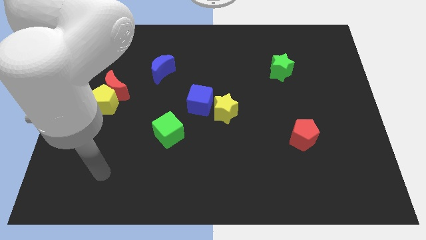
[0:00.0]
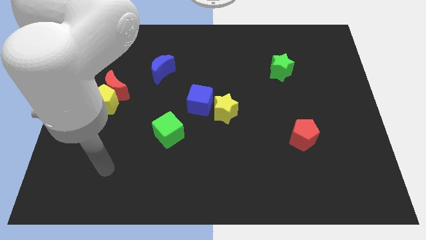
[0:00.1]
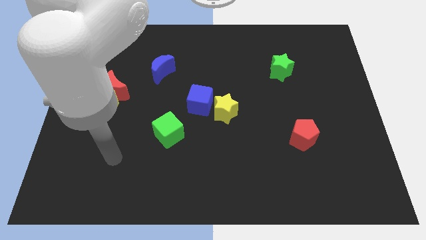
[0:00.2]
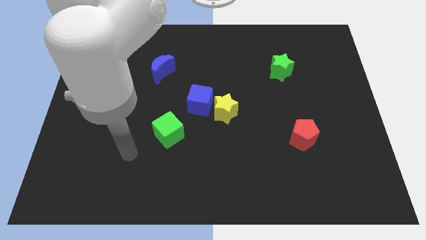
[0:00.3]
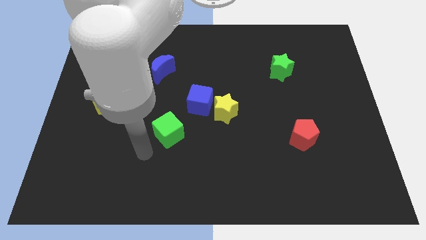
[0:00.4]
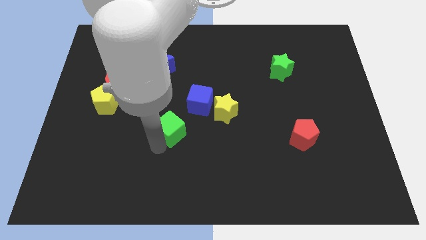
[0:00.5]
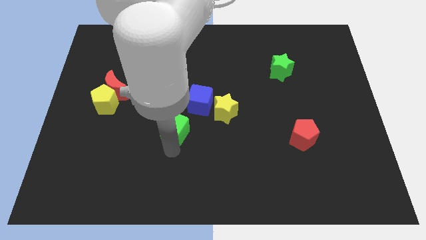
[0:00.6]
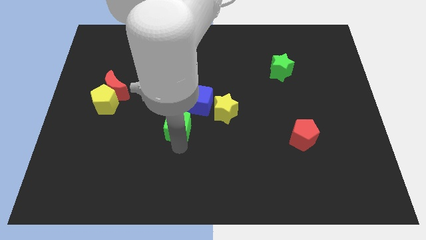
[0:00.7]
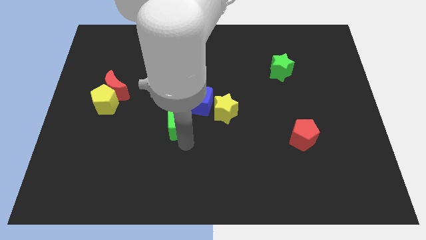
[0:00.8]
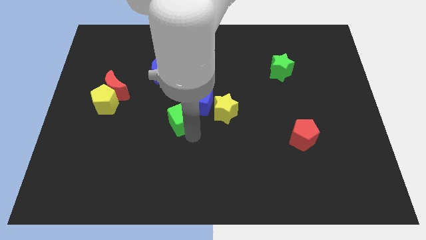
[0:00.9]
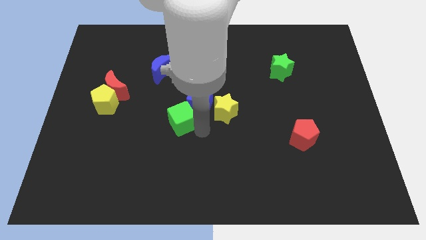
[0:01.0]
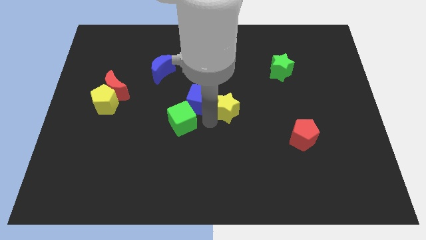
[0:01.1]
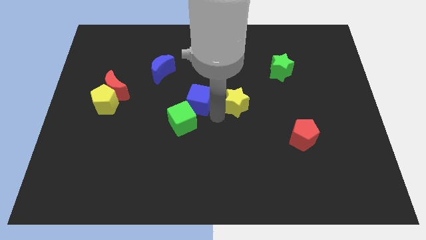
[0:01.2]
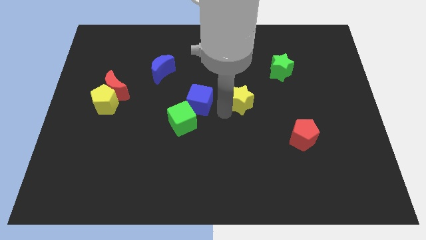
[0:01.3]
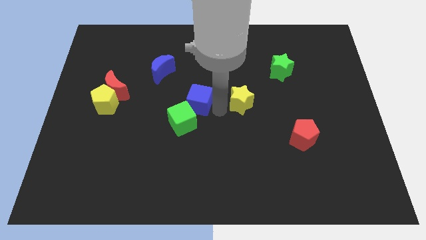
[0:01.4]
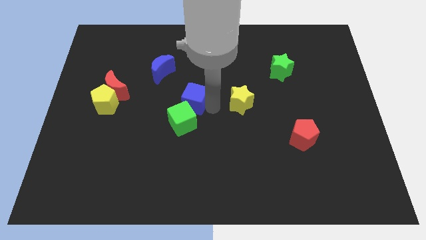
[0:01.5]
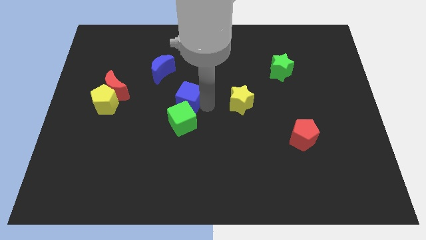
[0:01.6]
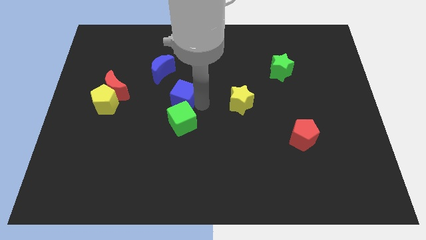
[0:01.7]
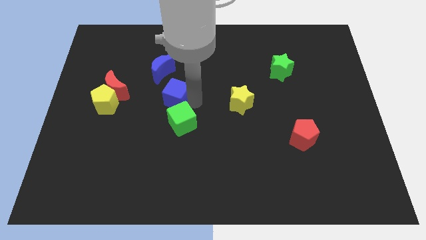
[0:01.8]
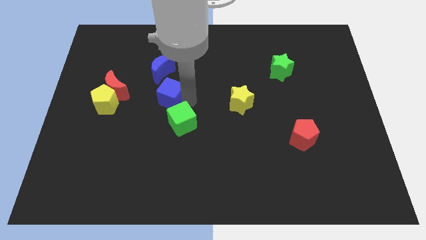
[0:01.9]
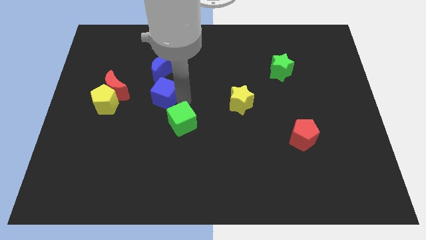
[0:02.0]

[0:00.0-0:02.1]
slide the blue cube slightly up and left diagonally

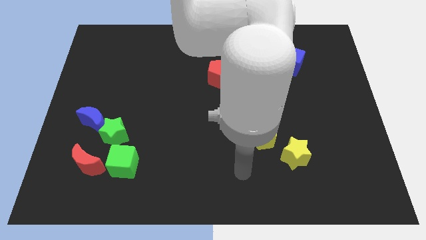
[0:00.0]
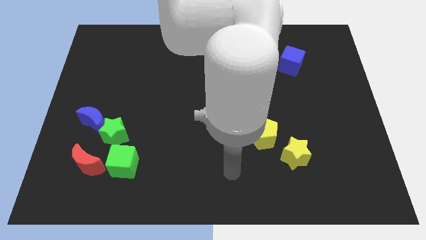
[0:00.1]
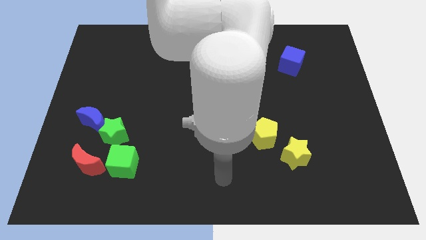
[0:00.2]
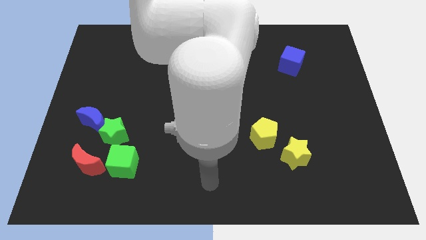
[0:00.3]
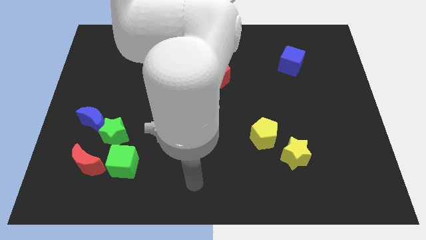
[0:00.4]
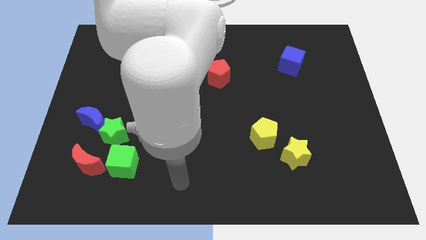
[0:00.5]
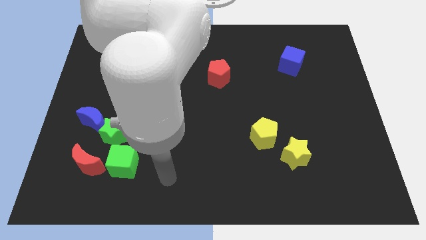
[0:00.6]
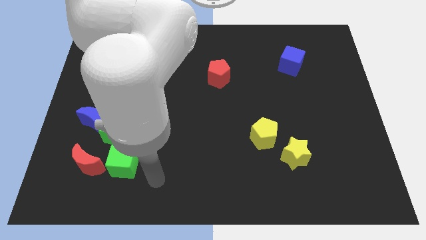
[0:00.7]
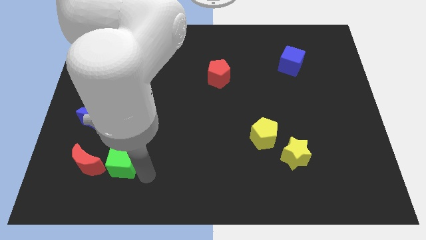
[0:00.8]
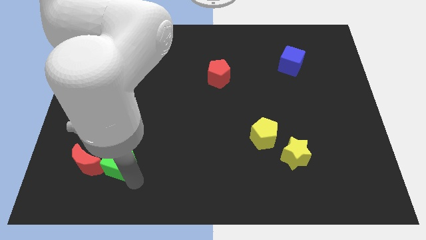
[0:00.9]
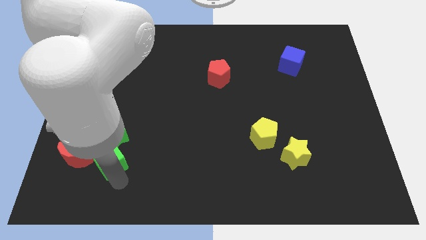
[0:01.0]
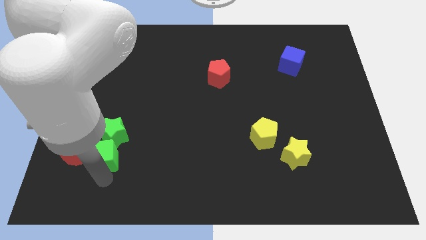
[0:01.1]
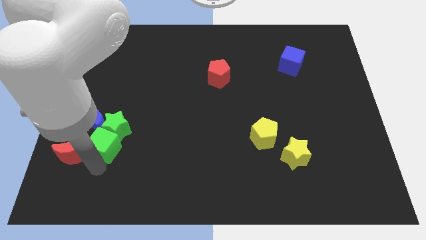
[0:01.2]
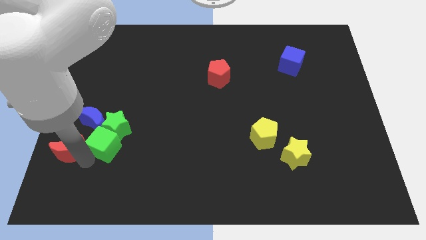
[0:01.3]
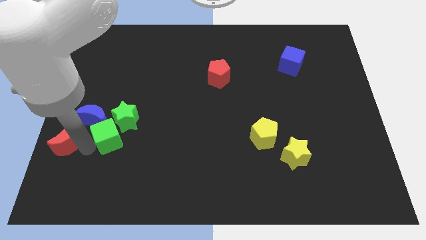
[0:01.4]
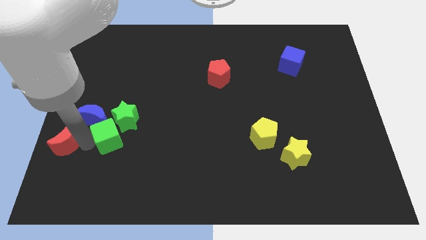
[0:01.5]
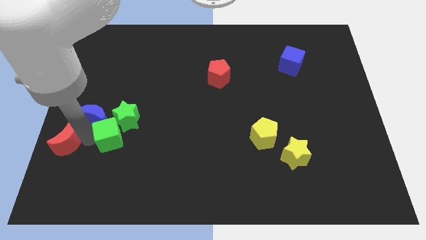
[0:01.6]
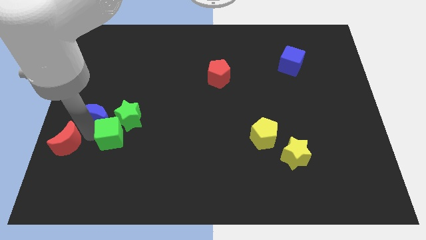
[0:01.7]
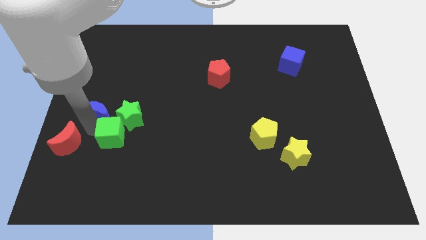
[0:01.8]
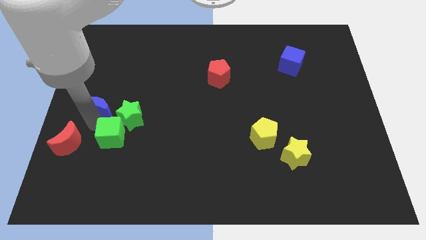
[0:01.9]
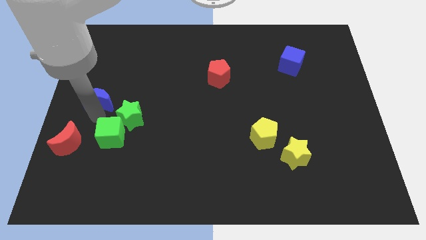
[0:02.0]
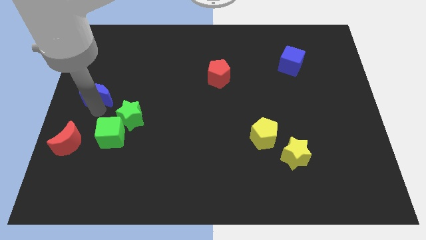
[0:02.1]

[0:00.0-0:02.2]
slightly push the blue moon up

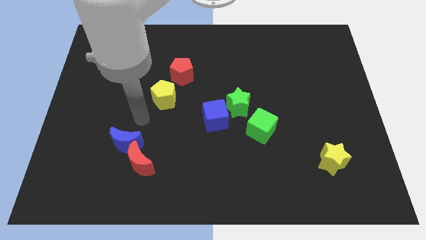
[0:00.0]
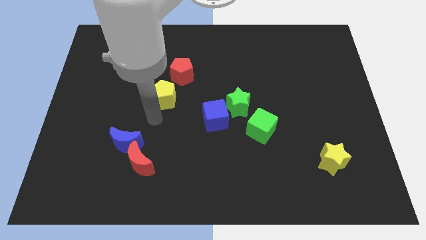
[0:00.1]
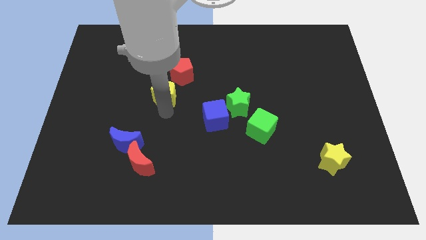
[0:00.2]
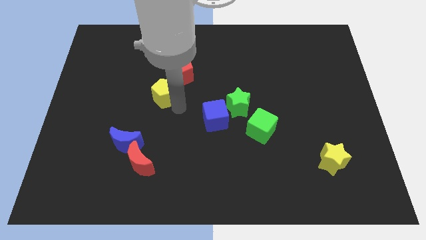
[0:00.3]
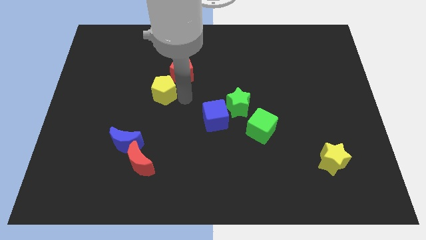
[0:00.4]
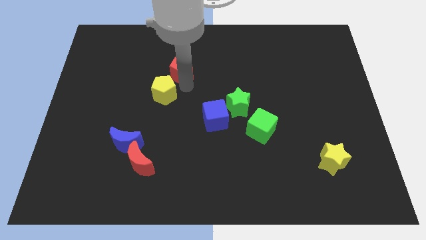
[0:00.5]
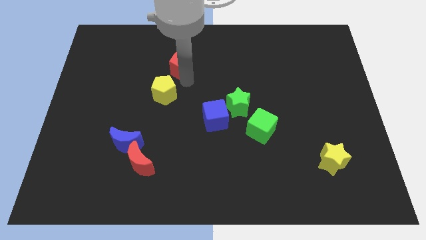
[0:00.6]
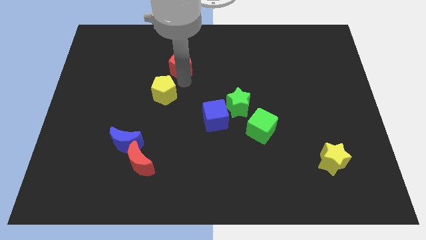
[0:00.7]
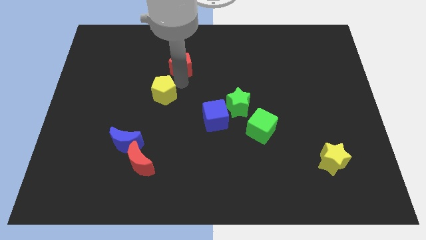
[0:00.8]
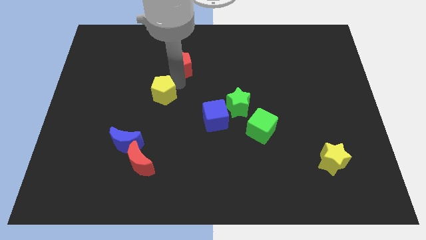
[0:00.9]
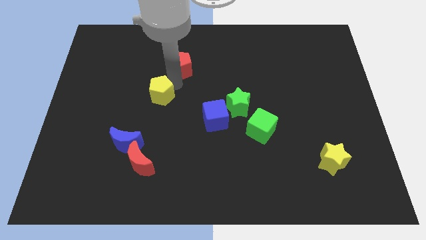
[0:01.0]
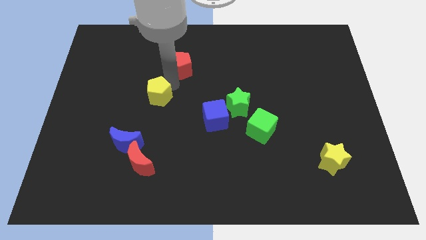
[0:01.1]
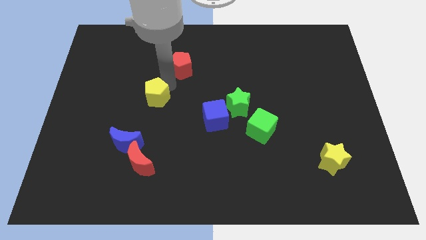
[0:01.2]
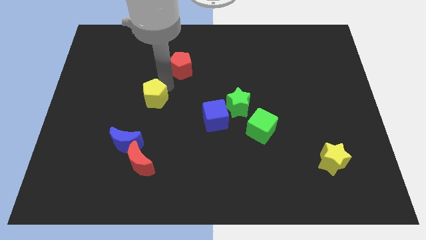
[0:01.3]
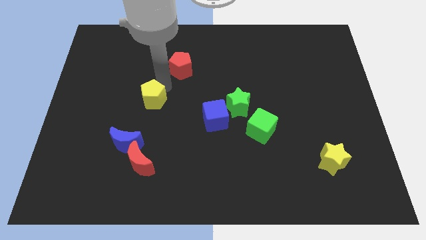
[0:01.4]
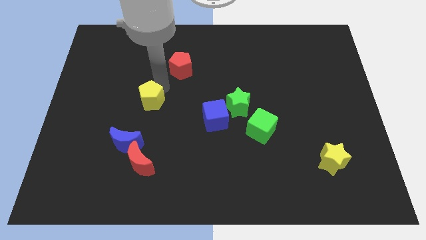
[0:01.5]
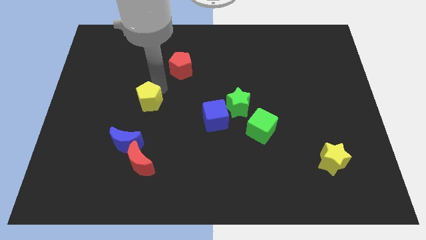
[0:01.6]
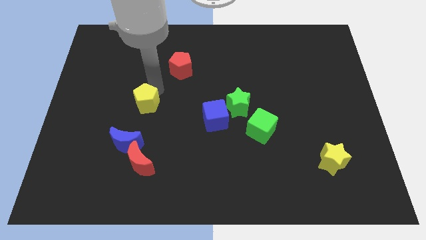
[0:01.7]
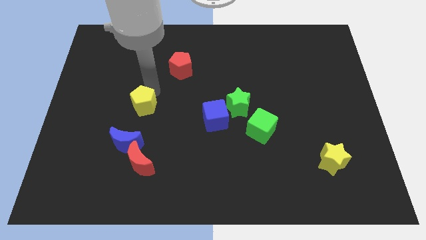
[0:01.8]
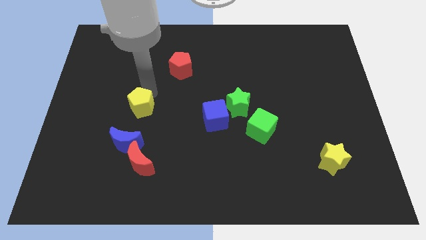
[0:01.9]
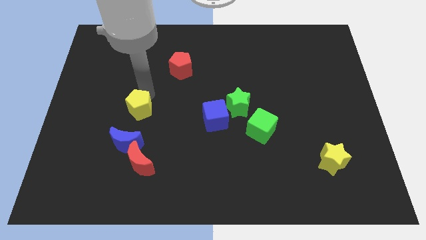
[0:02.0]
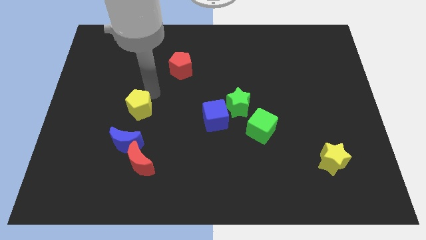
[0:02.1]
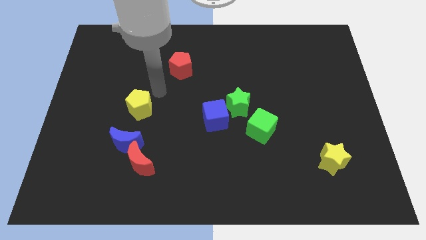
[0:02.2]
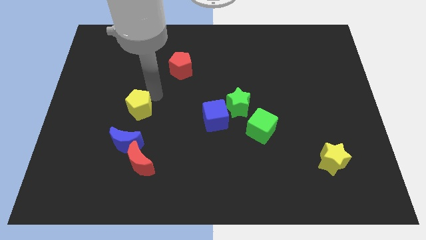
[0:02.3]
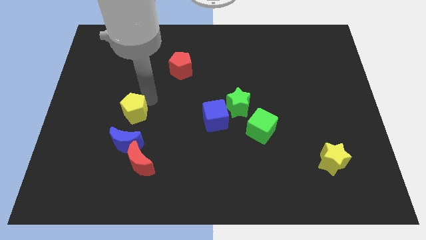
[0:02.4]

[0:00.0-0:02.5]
move the yellow pentagon downwards and then to the left a bit

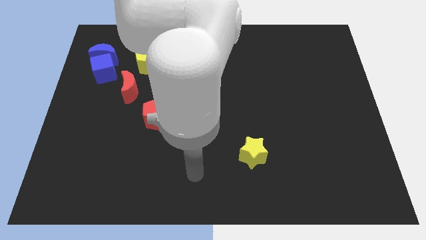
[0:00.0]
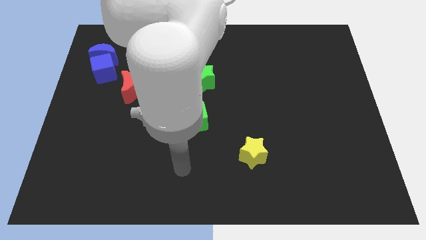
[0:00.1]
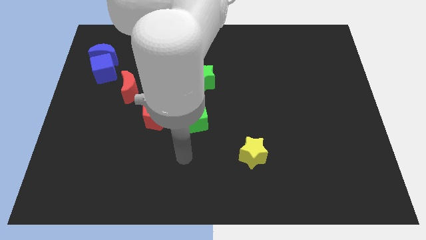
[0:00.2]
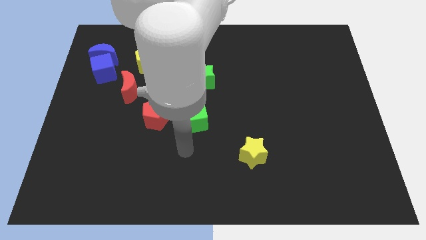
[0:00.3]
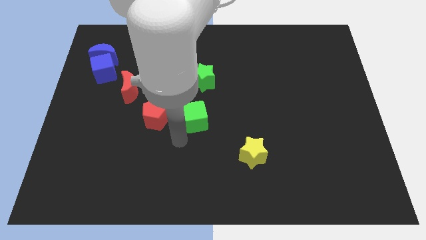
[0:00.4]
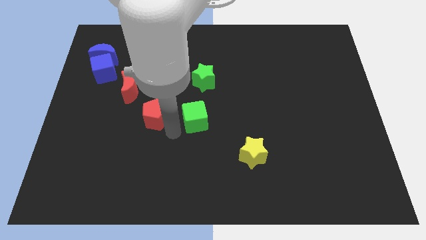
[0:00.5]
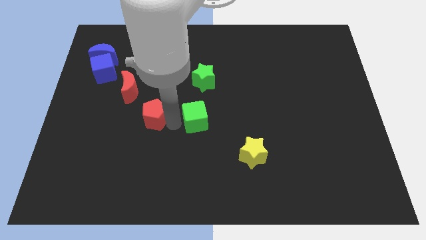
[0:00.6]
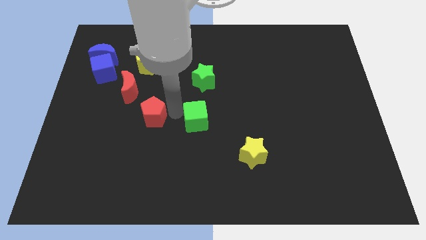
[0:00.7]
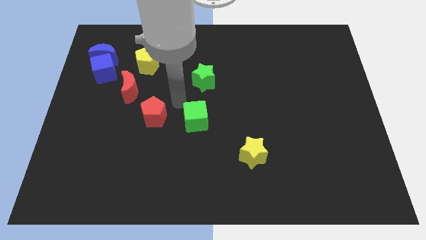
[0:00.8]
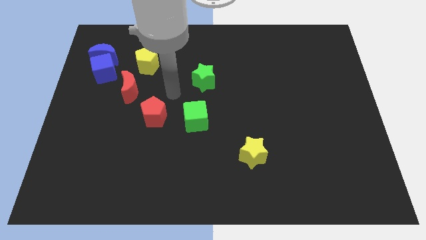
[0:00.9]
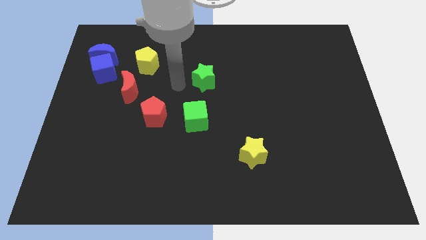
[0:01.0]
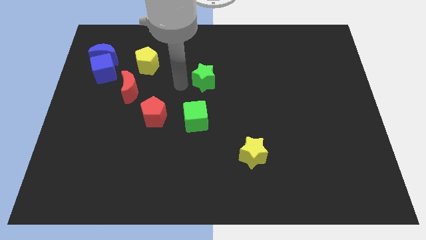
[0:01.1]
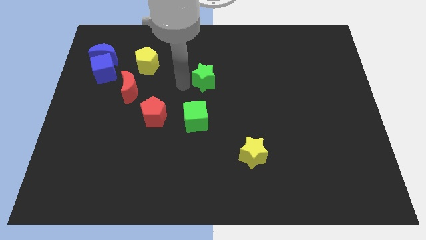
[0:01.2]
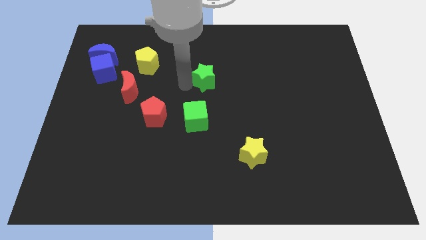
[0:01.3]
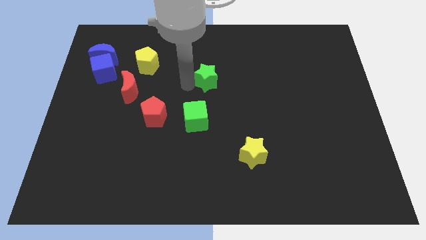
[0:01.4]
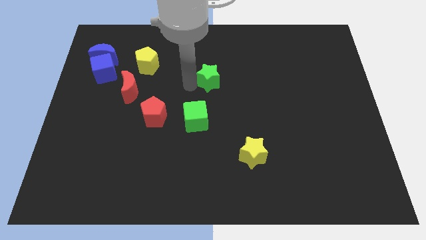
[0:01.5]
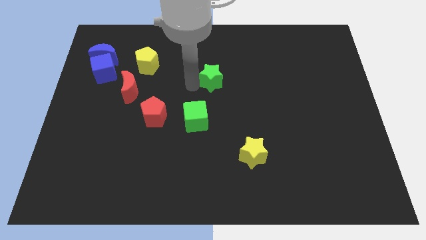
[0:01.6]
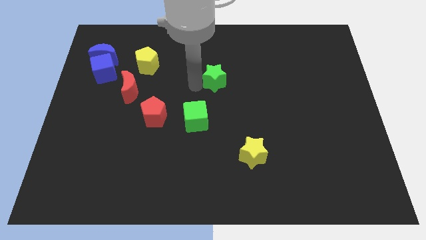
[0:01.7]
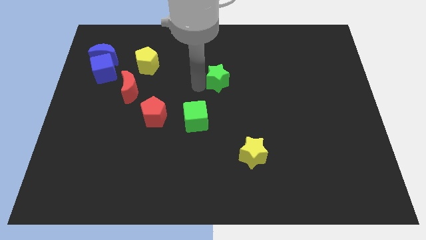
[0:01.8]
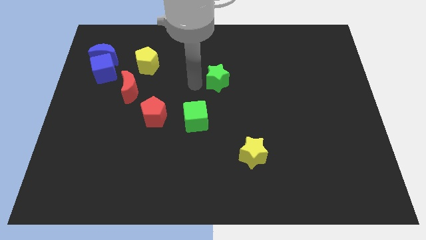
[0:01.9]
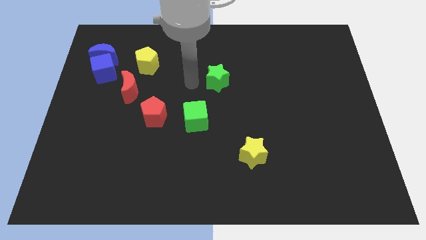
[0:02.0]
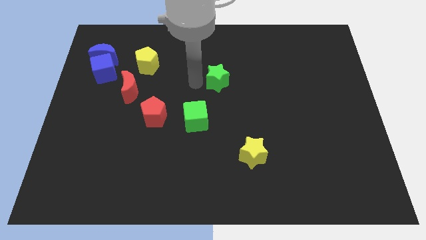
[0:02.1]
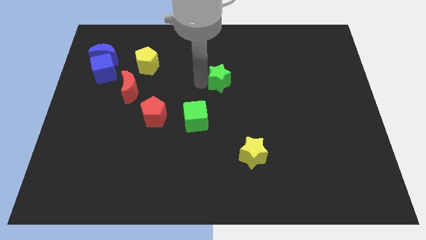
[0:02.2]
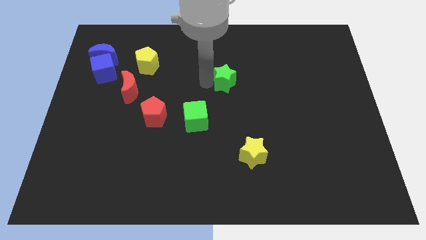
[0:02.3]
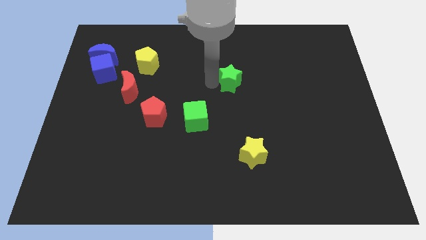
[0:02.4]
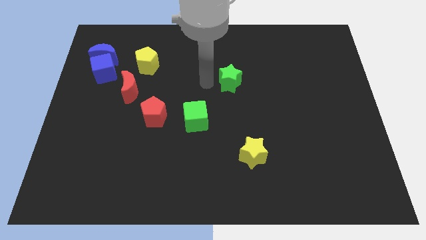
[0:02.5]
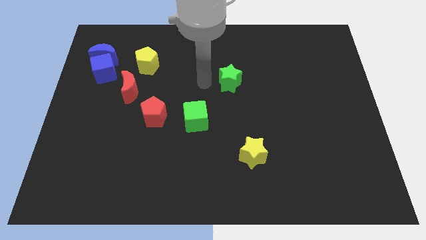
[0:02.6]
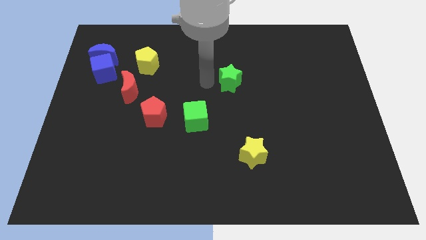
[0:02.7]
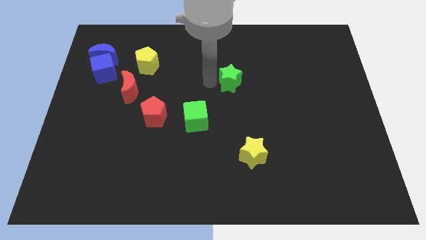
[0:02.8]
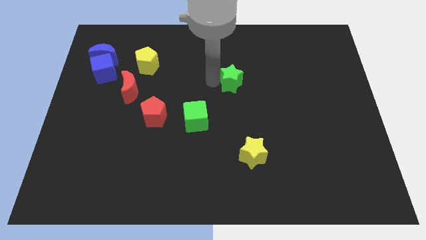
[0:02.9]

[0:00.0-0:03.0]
slide the green star to the right slightly
